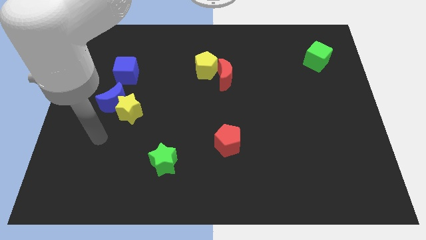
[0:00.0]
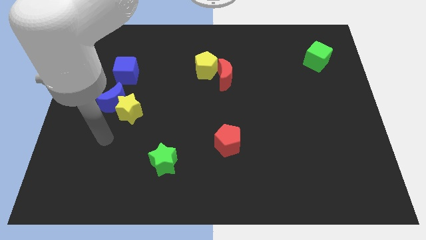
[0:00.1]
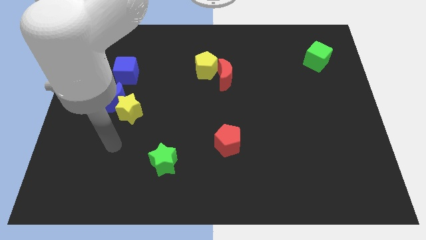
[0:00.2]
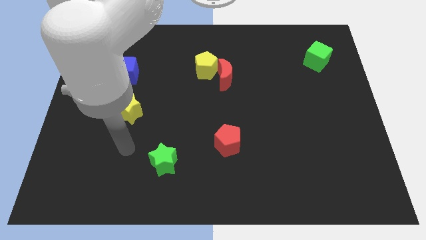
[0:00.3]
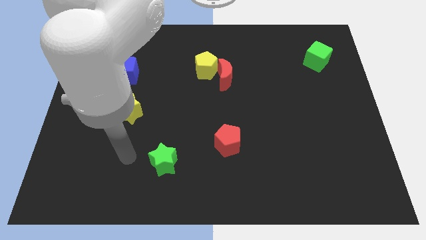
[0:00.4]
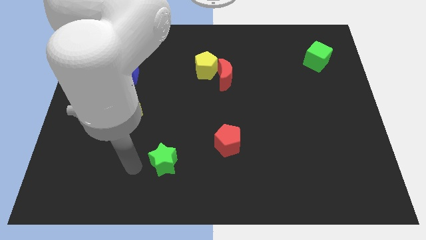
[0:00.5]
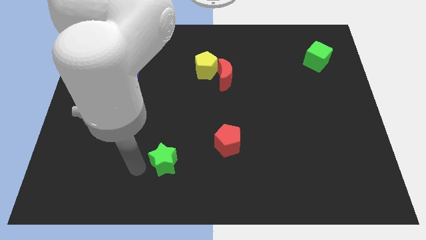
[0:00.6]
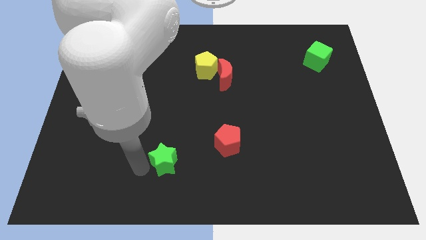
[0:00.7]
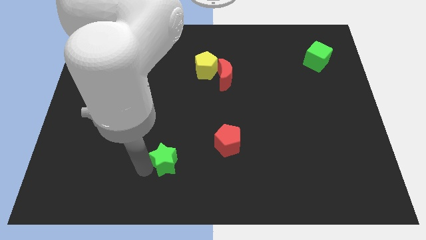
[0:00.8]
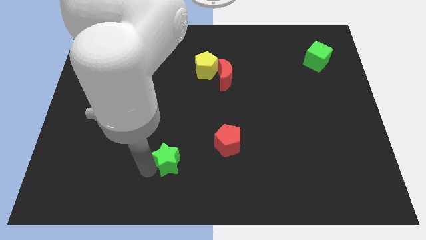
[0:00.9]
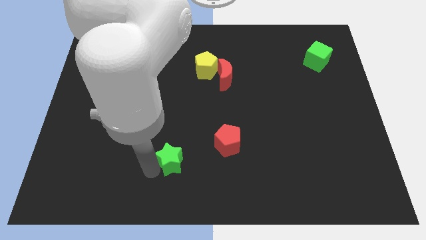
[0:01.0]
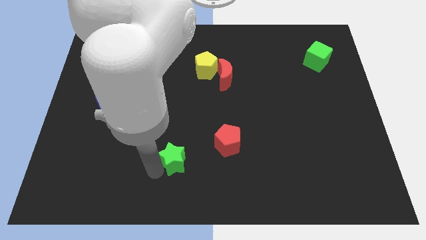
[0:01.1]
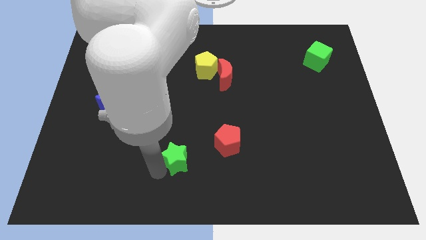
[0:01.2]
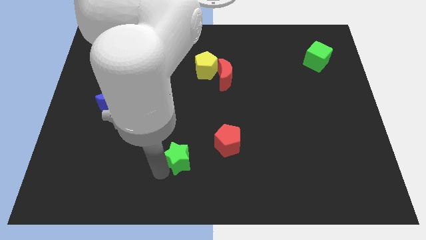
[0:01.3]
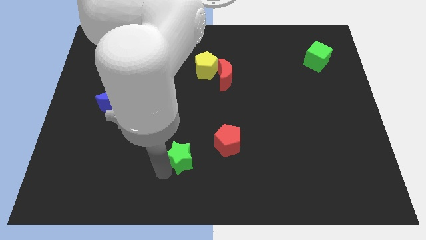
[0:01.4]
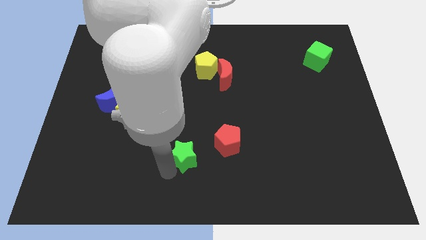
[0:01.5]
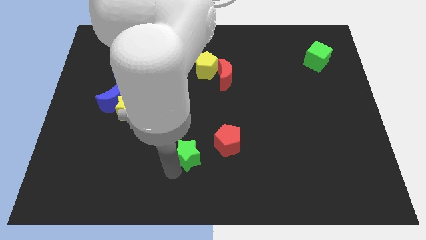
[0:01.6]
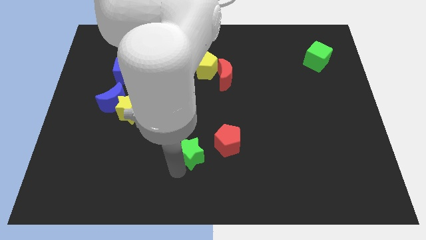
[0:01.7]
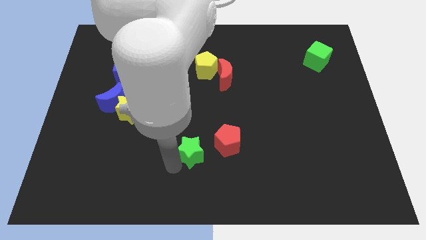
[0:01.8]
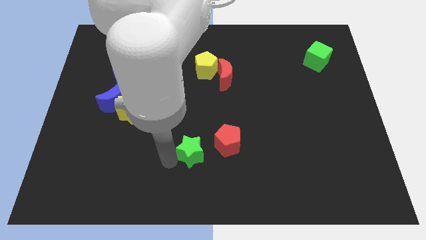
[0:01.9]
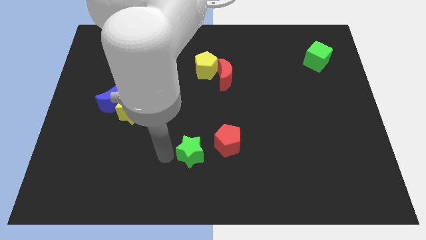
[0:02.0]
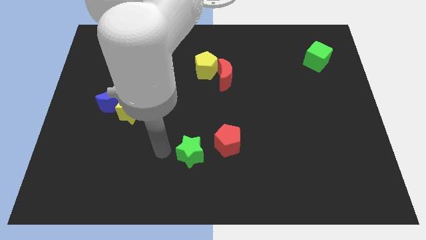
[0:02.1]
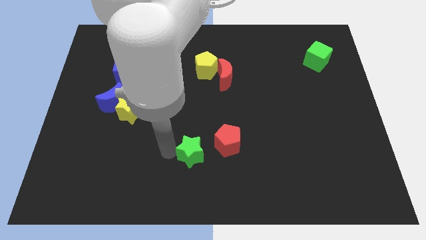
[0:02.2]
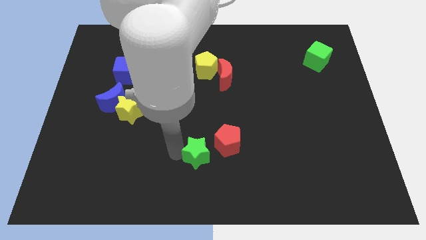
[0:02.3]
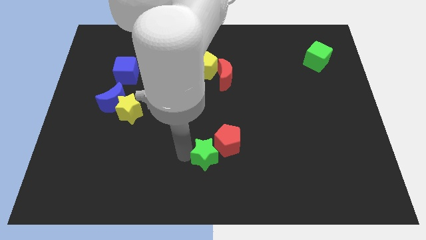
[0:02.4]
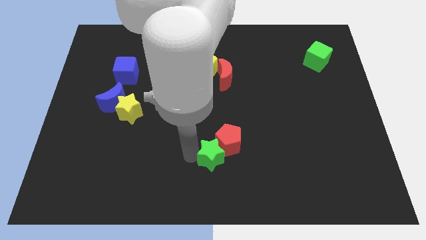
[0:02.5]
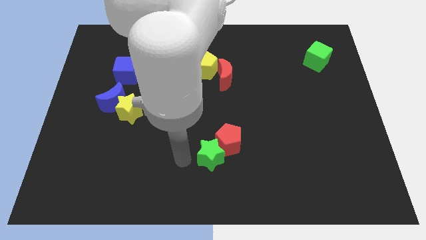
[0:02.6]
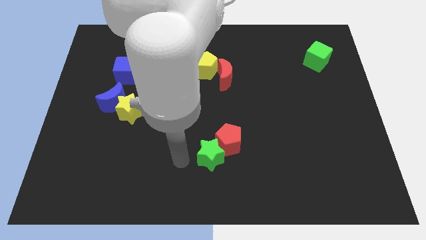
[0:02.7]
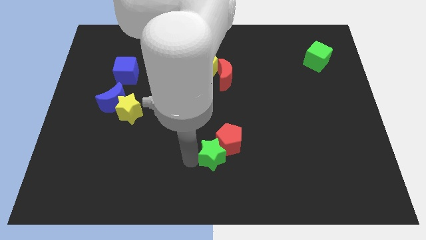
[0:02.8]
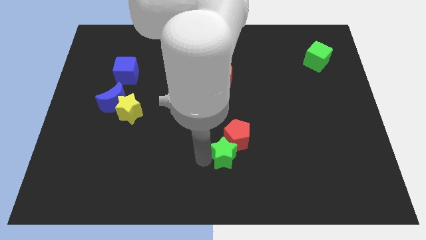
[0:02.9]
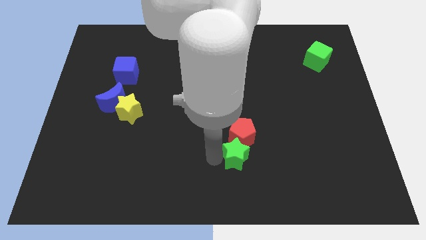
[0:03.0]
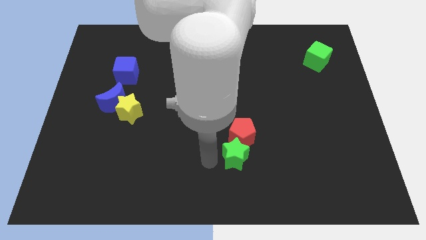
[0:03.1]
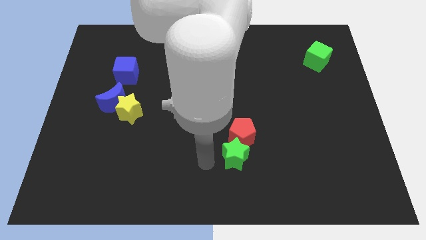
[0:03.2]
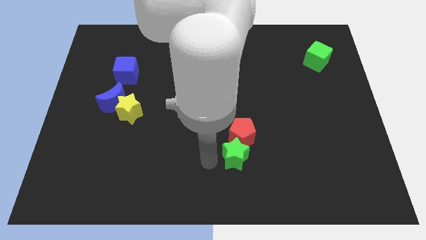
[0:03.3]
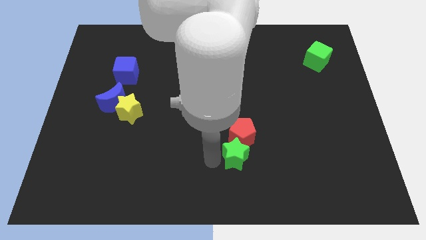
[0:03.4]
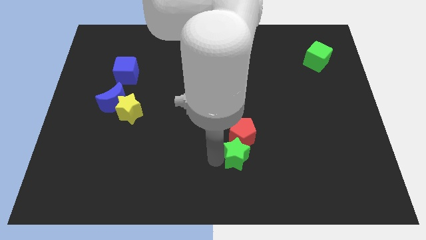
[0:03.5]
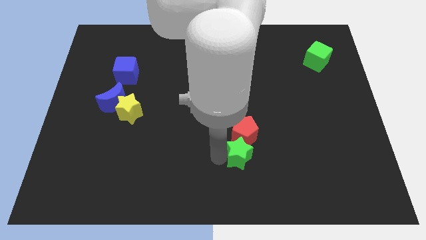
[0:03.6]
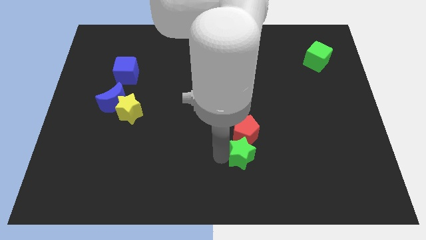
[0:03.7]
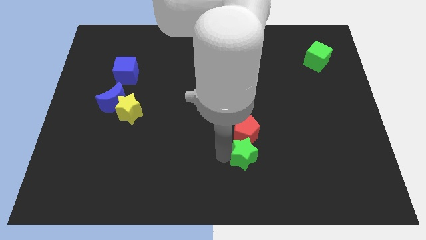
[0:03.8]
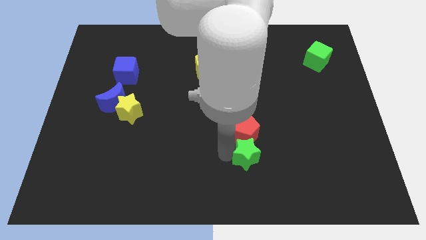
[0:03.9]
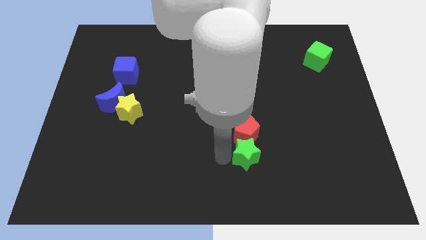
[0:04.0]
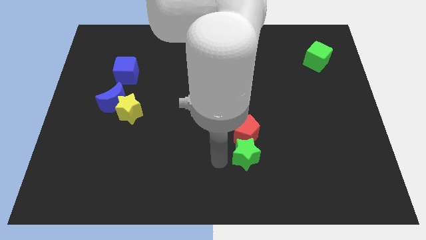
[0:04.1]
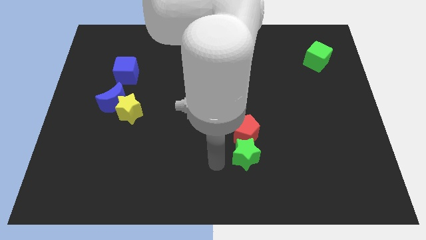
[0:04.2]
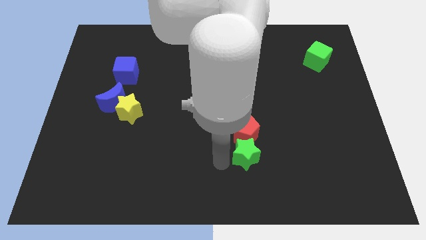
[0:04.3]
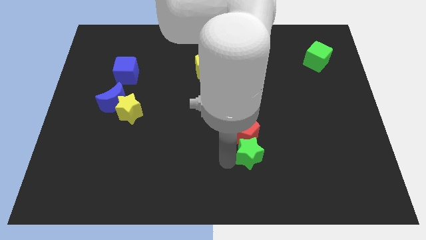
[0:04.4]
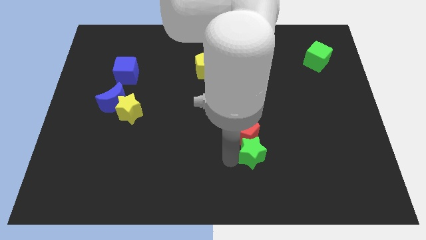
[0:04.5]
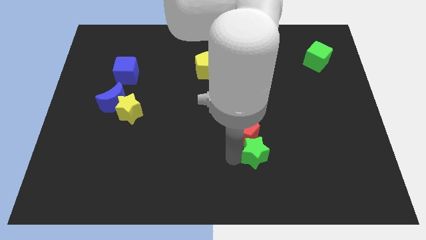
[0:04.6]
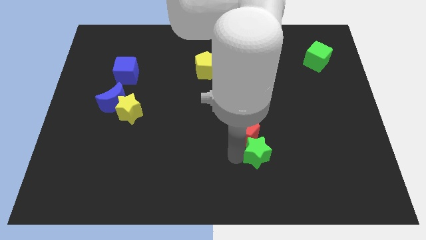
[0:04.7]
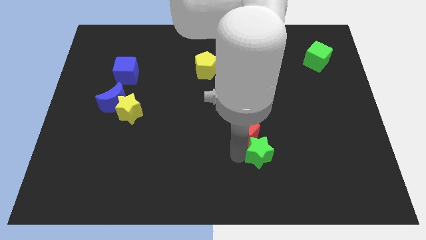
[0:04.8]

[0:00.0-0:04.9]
move the green star to the right

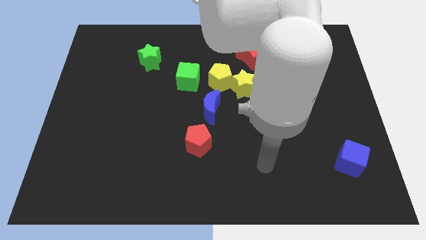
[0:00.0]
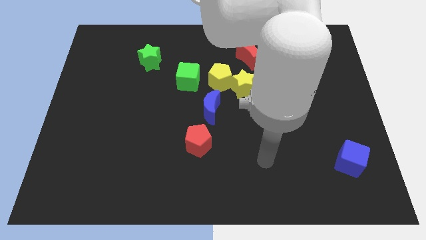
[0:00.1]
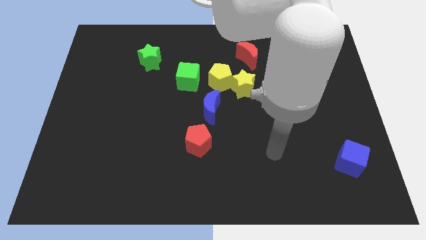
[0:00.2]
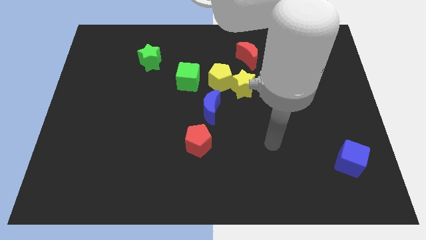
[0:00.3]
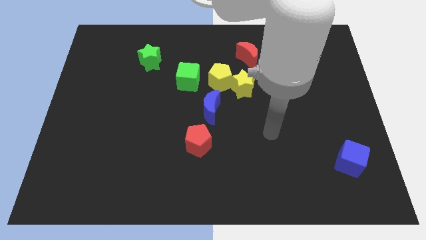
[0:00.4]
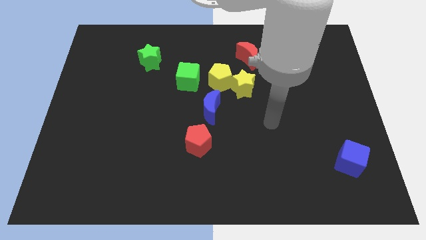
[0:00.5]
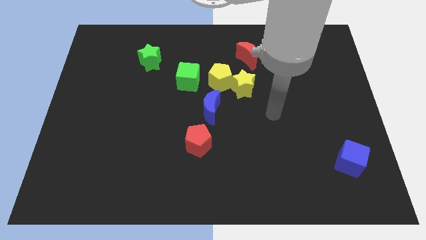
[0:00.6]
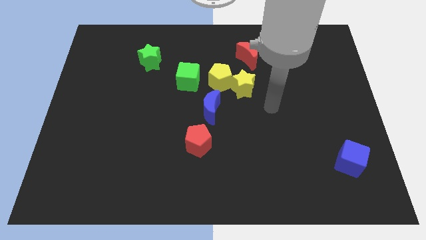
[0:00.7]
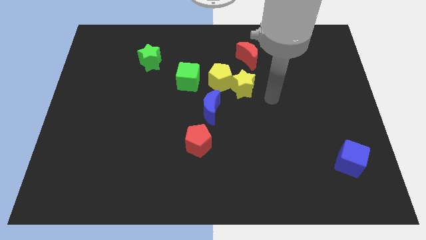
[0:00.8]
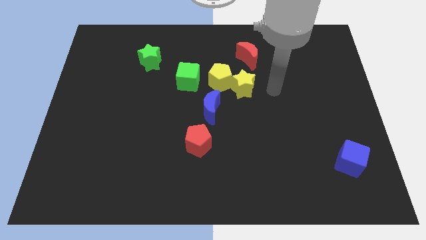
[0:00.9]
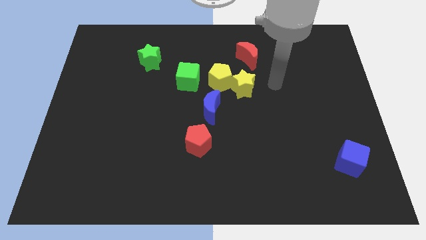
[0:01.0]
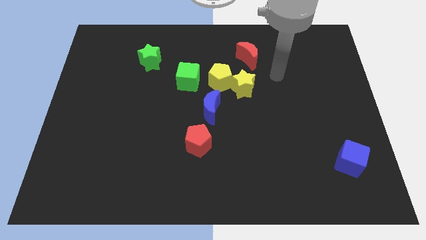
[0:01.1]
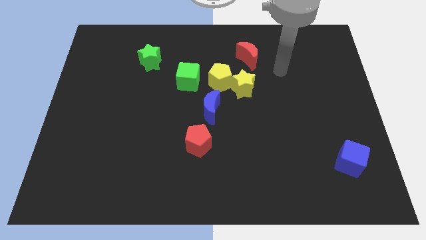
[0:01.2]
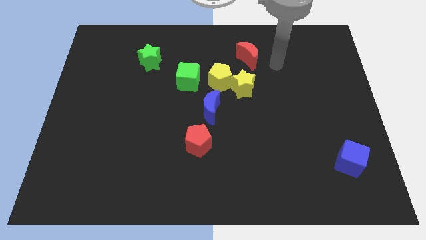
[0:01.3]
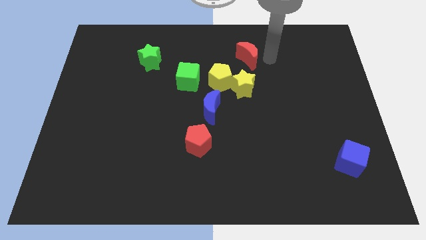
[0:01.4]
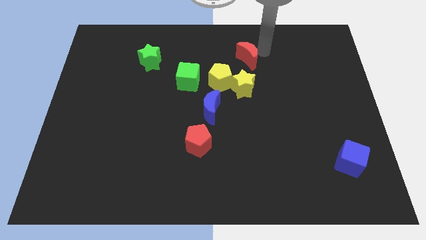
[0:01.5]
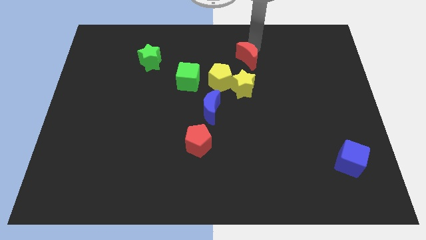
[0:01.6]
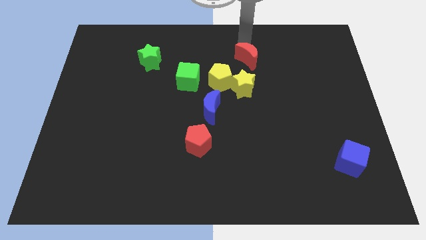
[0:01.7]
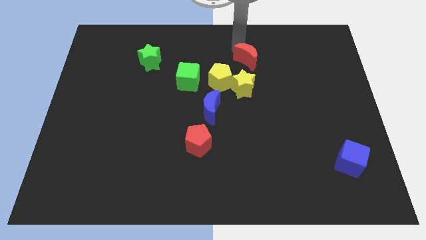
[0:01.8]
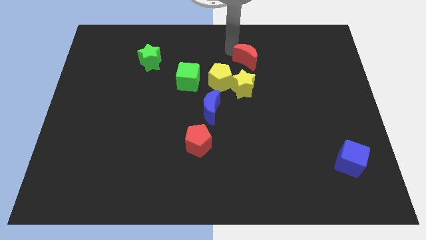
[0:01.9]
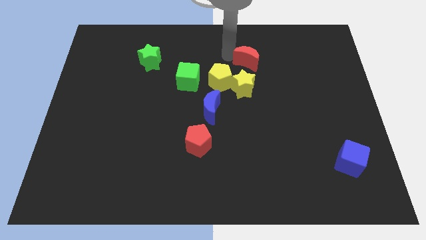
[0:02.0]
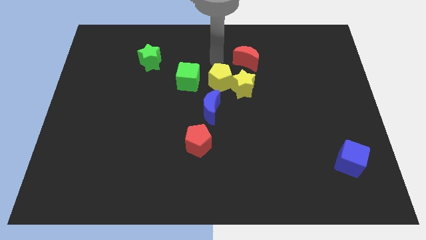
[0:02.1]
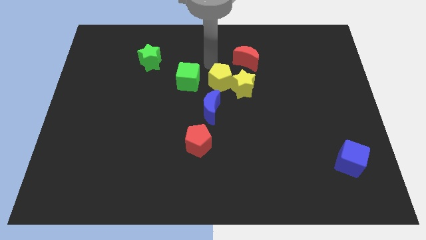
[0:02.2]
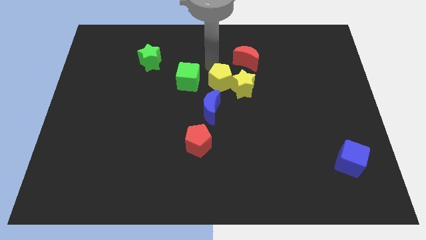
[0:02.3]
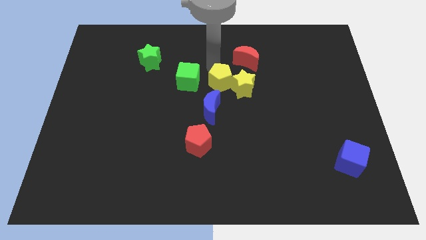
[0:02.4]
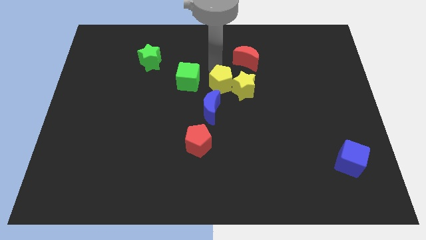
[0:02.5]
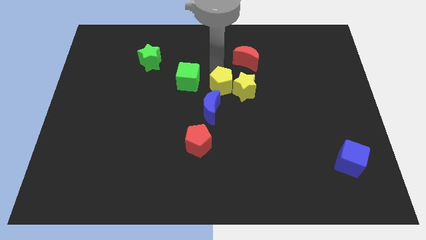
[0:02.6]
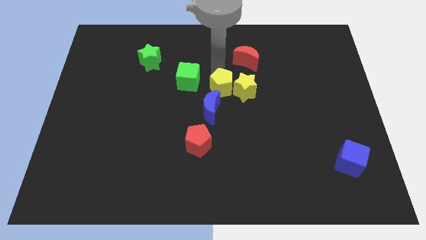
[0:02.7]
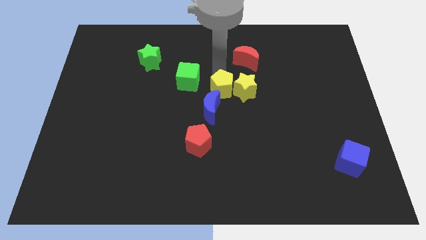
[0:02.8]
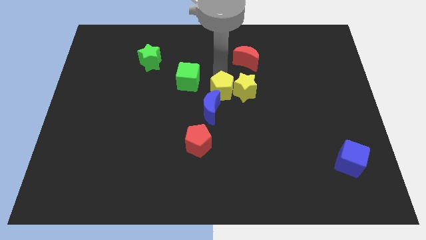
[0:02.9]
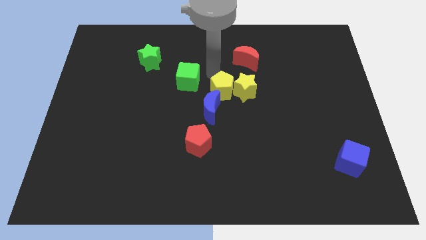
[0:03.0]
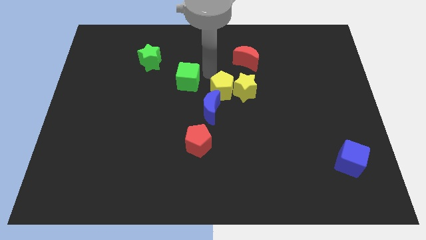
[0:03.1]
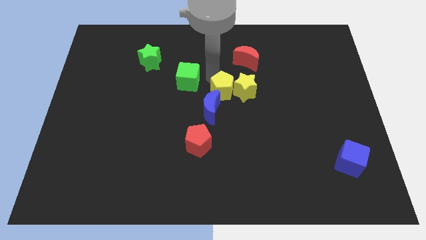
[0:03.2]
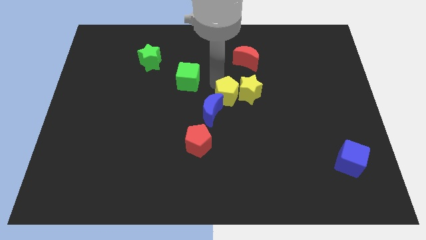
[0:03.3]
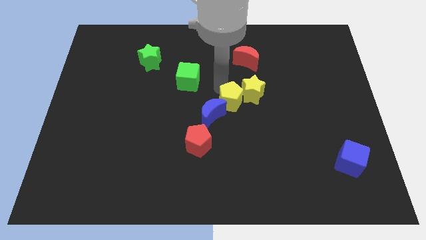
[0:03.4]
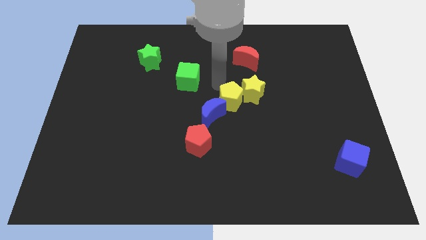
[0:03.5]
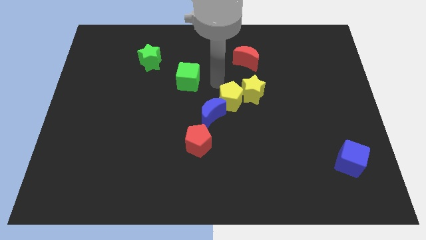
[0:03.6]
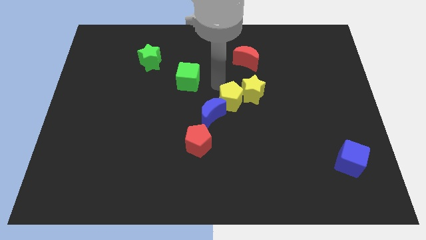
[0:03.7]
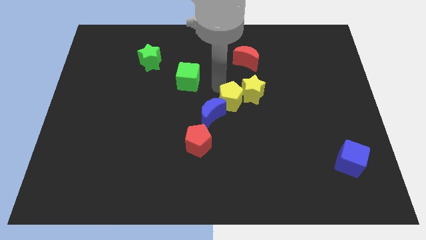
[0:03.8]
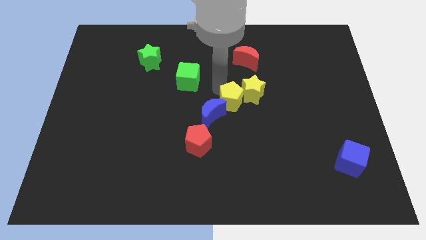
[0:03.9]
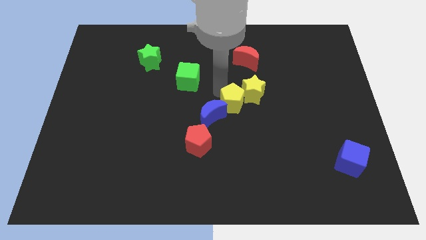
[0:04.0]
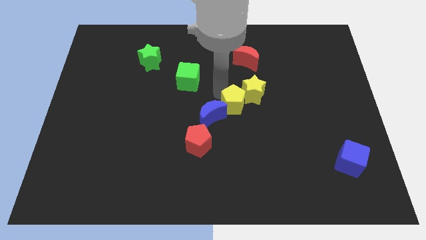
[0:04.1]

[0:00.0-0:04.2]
push the yellow pentagon downwards a bit
